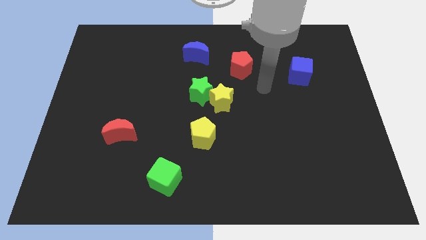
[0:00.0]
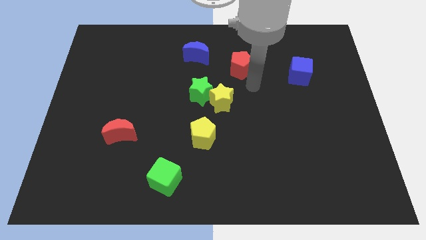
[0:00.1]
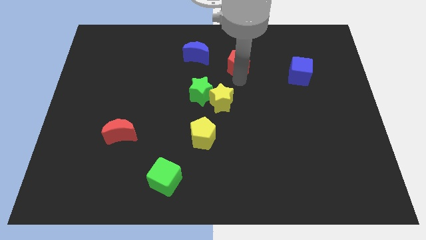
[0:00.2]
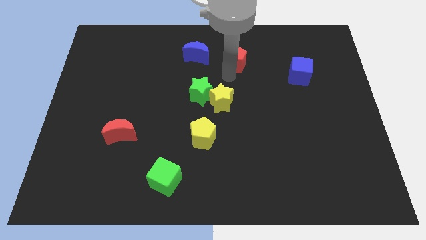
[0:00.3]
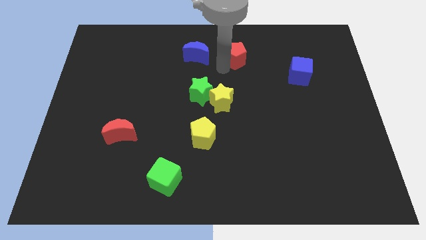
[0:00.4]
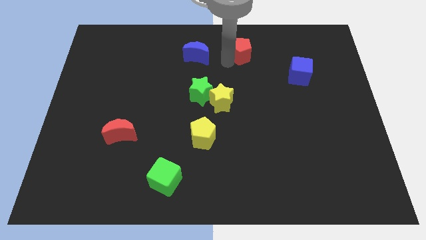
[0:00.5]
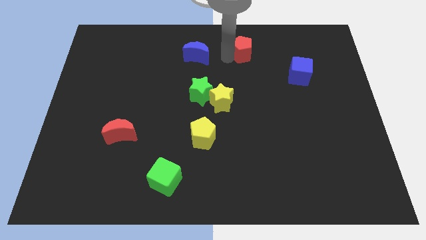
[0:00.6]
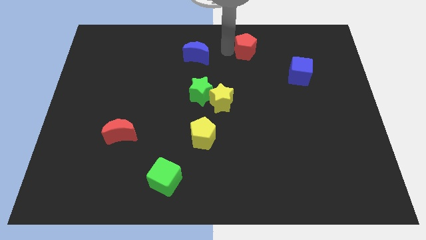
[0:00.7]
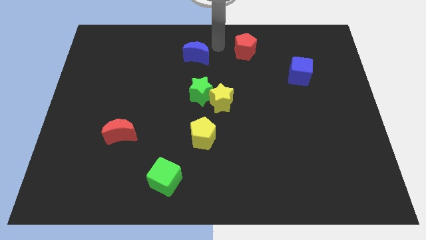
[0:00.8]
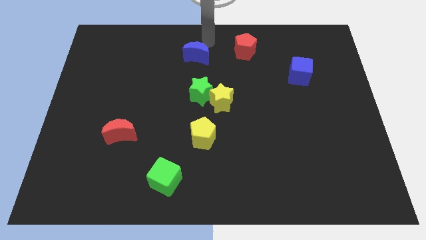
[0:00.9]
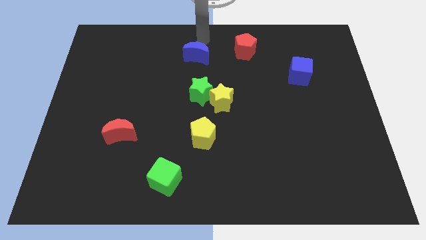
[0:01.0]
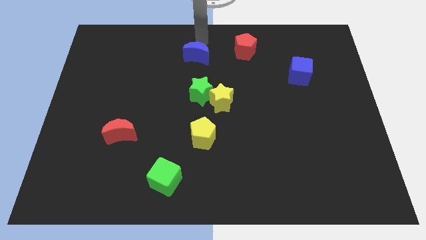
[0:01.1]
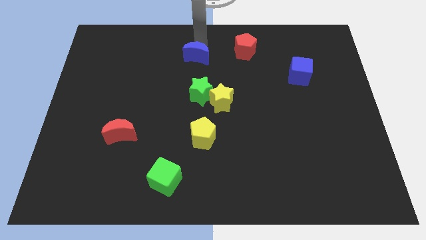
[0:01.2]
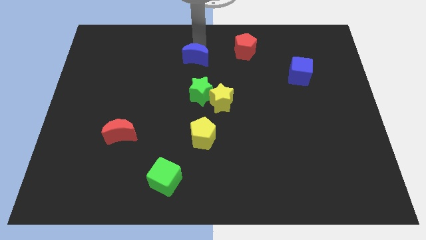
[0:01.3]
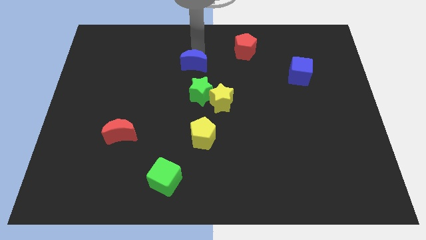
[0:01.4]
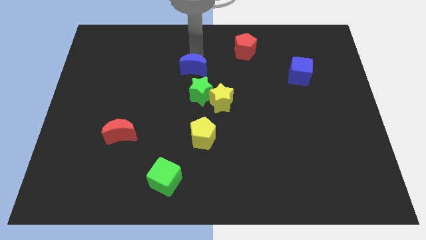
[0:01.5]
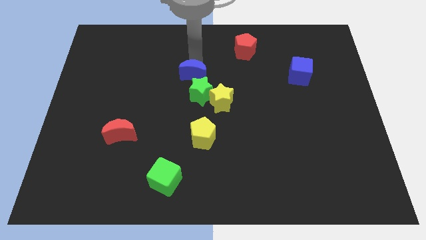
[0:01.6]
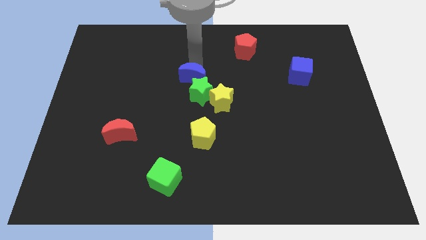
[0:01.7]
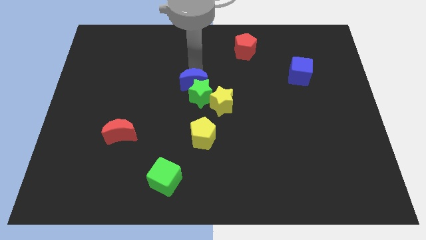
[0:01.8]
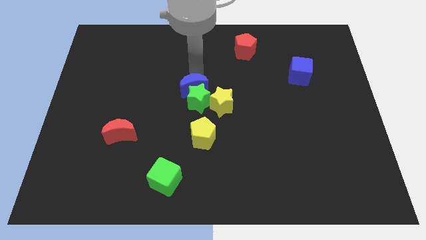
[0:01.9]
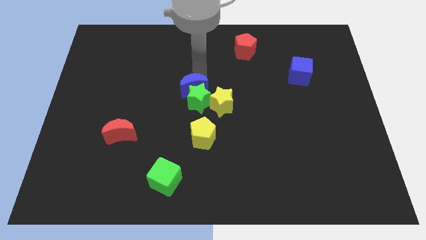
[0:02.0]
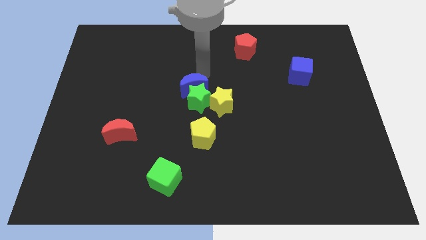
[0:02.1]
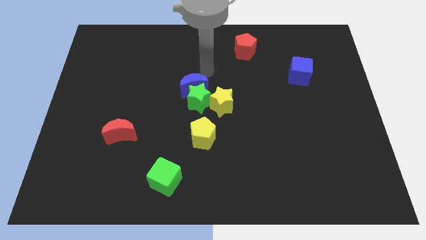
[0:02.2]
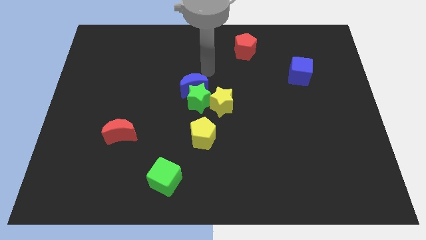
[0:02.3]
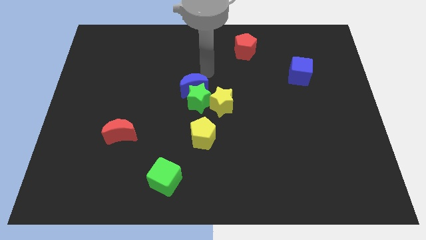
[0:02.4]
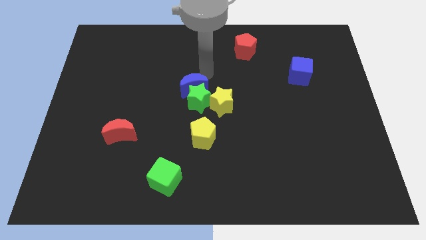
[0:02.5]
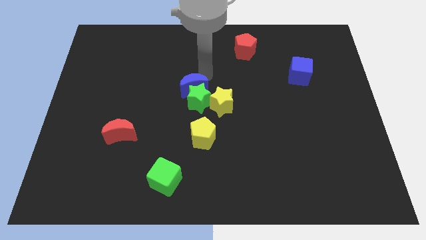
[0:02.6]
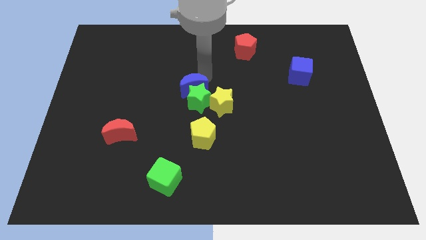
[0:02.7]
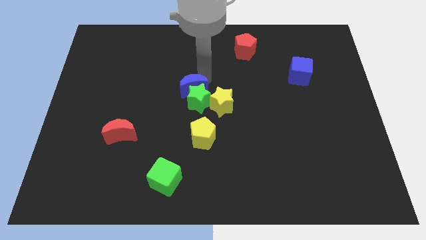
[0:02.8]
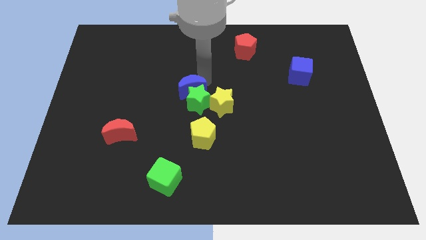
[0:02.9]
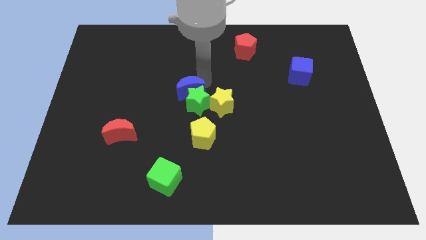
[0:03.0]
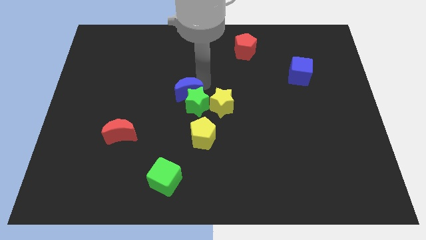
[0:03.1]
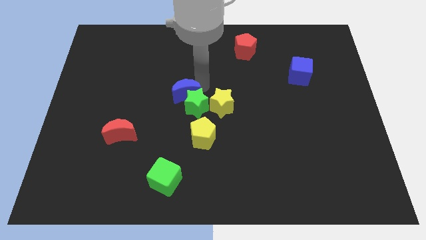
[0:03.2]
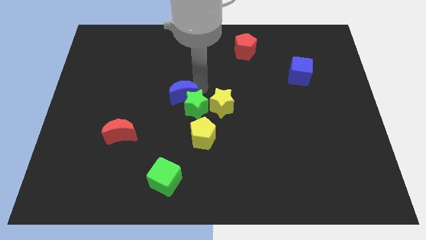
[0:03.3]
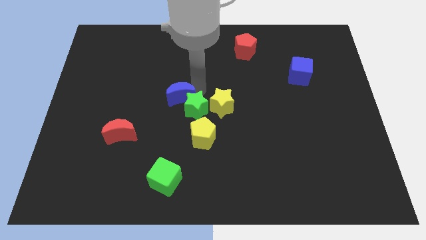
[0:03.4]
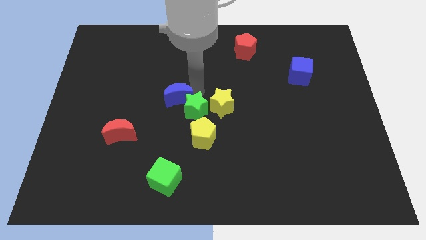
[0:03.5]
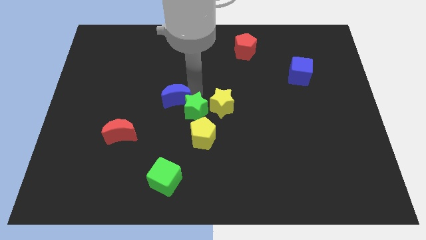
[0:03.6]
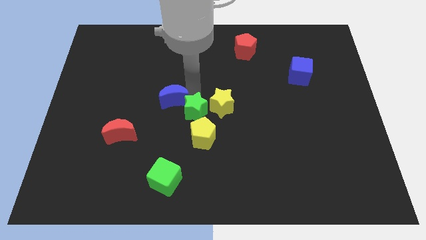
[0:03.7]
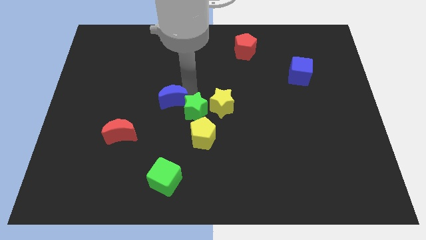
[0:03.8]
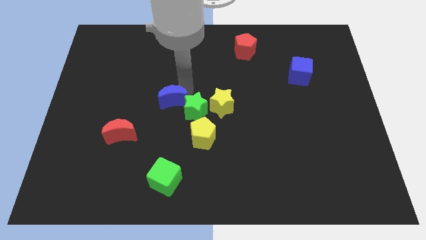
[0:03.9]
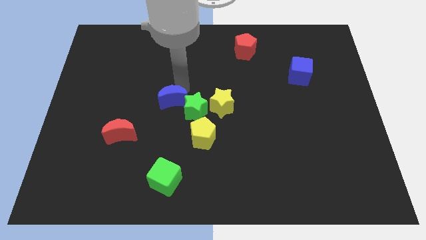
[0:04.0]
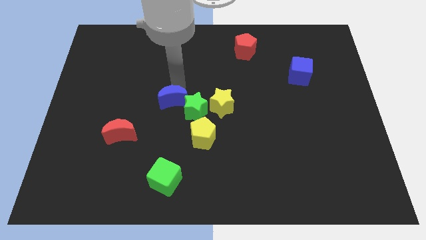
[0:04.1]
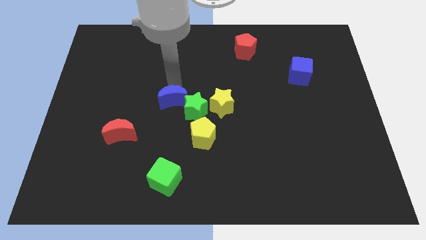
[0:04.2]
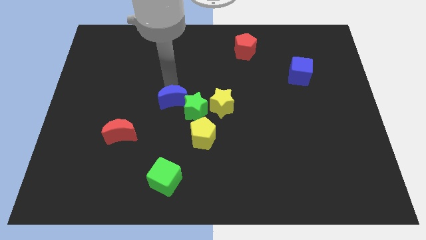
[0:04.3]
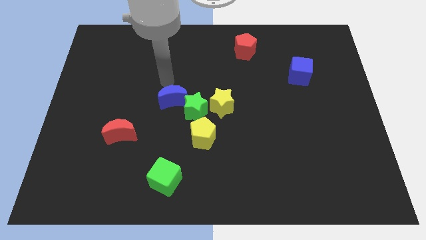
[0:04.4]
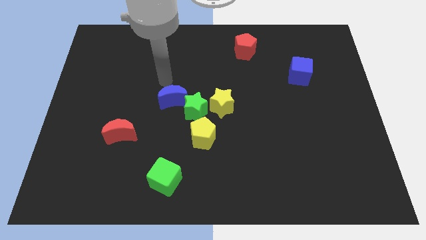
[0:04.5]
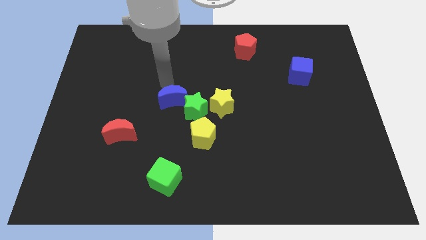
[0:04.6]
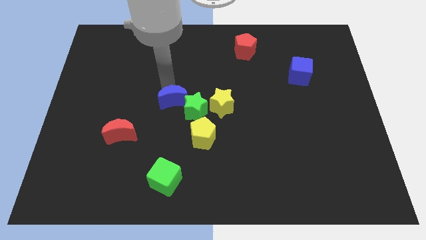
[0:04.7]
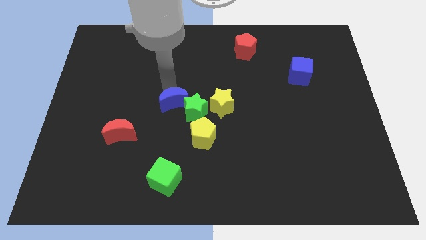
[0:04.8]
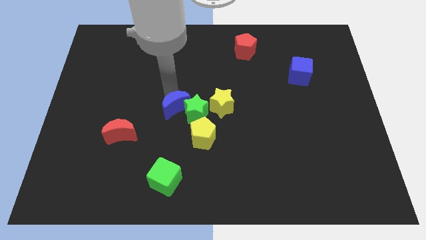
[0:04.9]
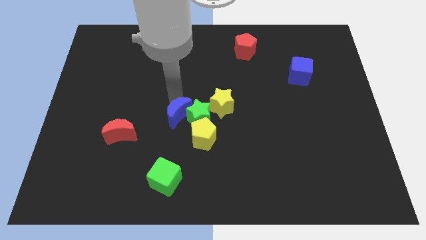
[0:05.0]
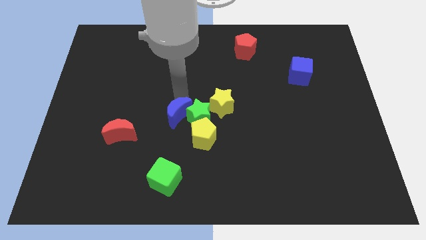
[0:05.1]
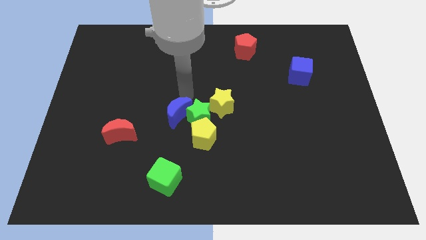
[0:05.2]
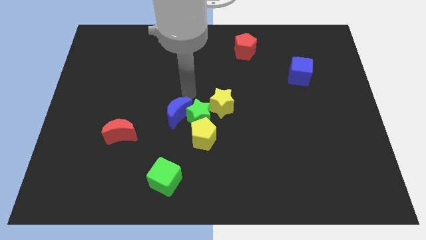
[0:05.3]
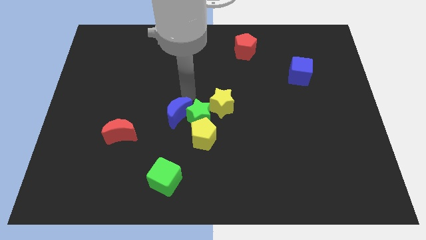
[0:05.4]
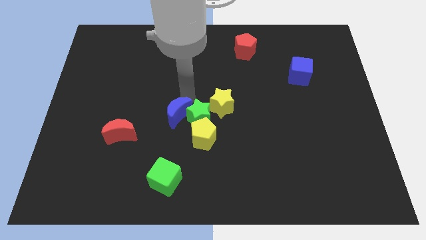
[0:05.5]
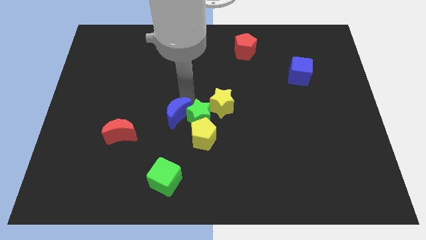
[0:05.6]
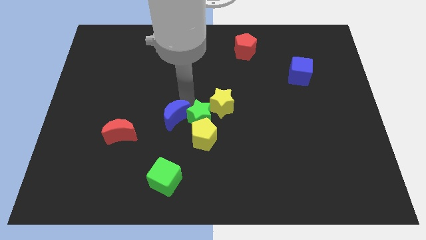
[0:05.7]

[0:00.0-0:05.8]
push the blue moon just right of the red moon

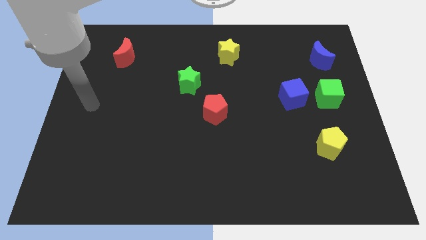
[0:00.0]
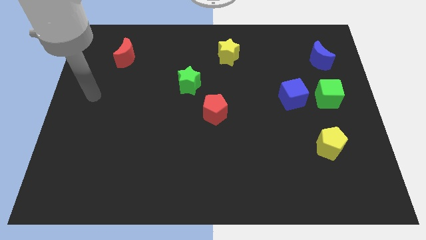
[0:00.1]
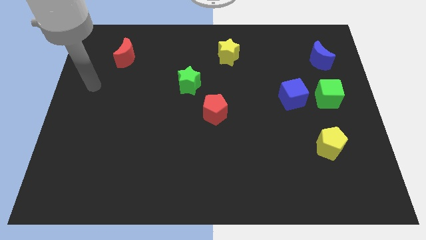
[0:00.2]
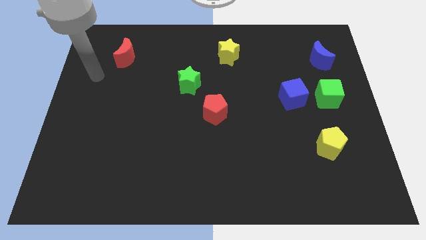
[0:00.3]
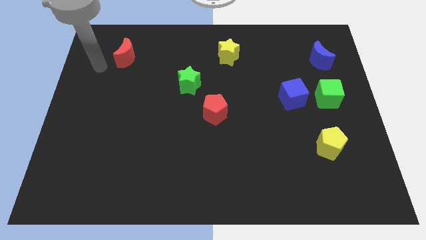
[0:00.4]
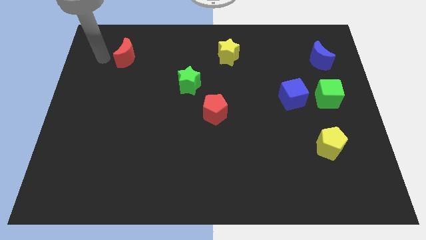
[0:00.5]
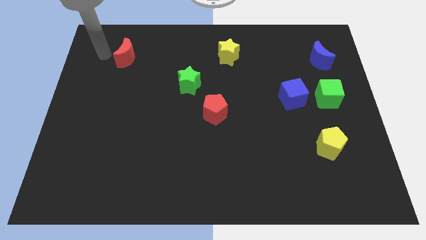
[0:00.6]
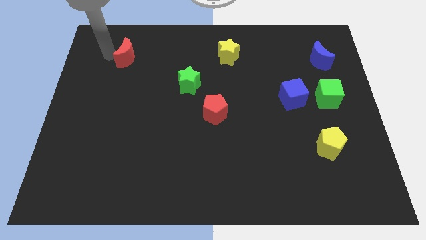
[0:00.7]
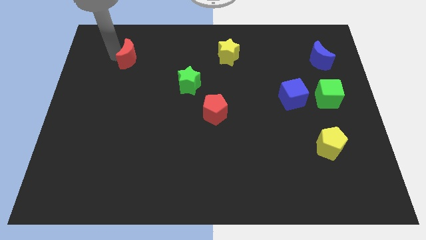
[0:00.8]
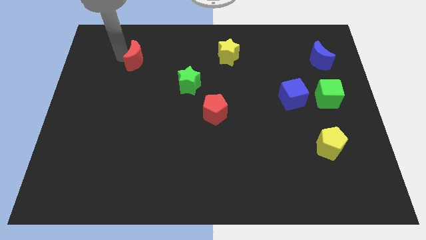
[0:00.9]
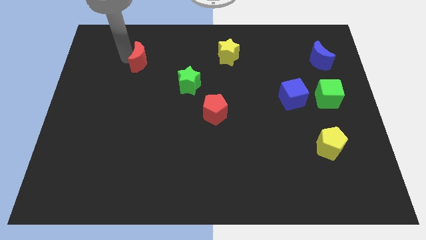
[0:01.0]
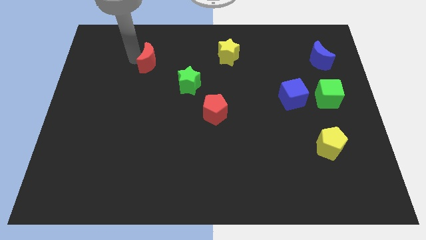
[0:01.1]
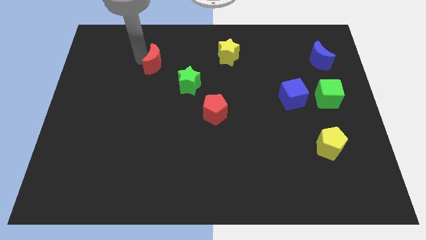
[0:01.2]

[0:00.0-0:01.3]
put the red moon diagonally up and to the left of the green star
